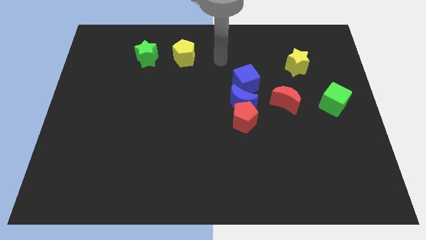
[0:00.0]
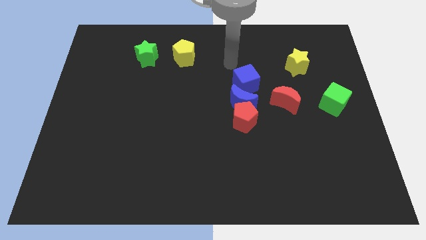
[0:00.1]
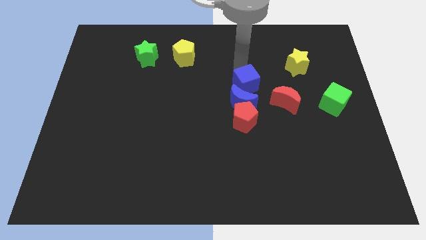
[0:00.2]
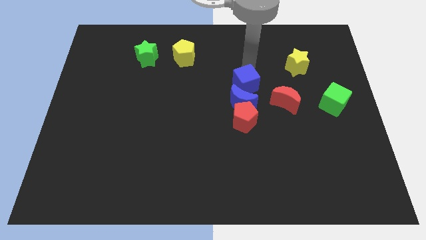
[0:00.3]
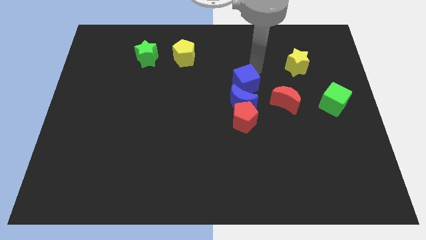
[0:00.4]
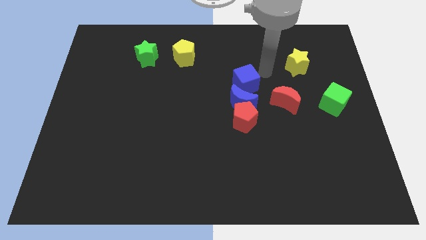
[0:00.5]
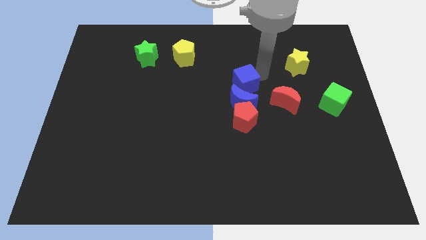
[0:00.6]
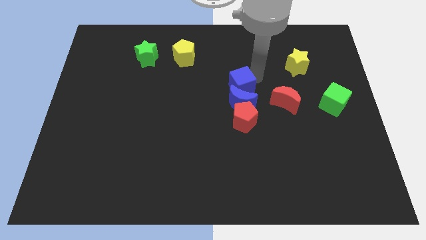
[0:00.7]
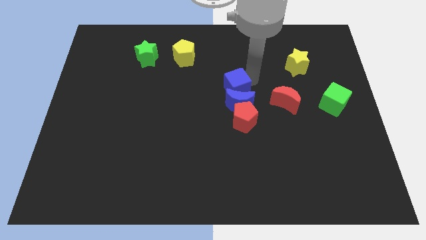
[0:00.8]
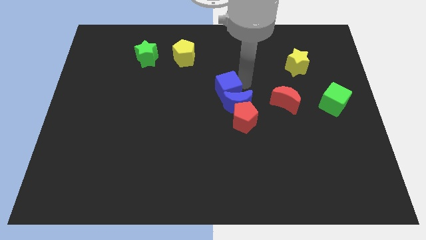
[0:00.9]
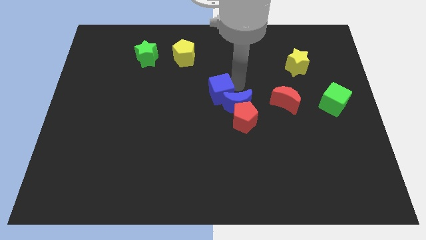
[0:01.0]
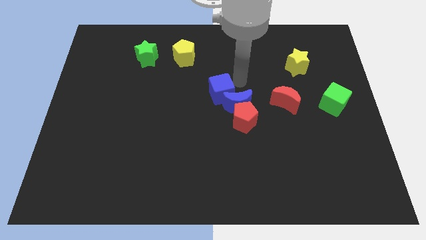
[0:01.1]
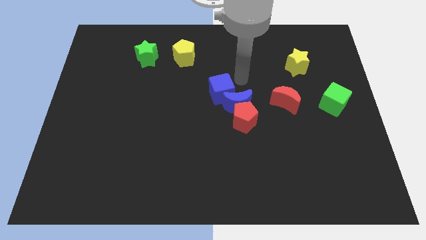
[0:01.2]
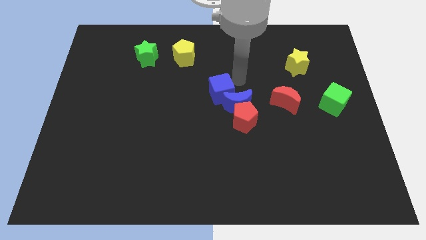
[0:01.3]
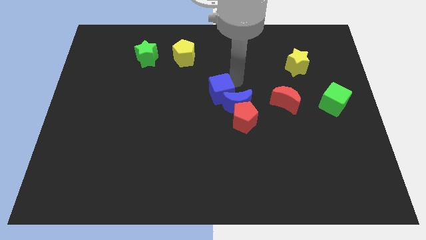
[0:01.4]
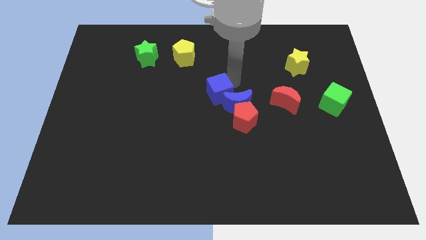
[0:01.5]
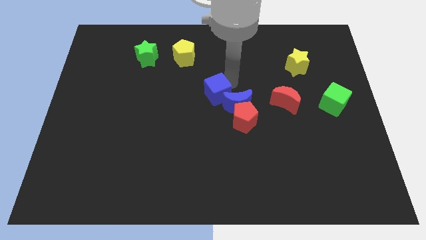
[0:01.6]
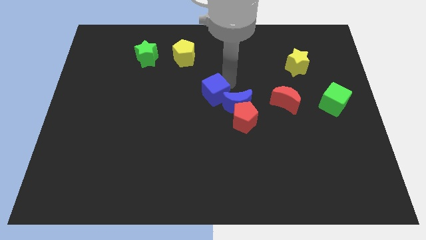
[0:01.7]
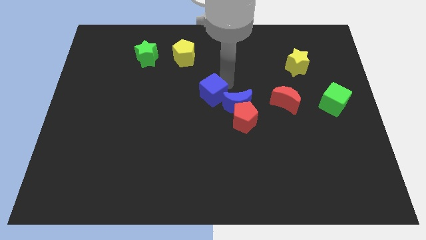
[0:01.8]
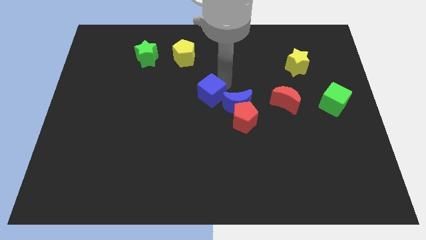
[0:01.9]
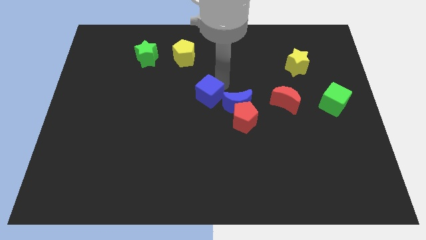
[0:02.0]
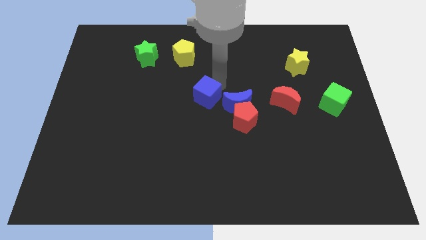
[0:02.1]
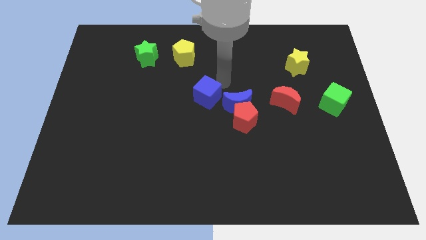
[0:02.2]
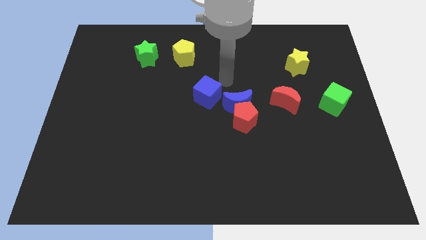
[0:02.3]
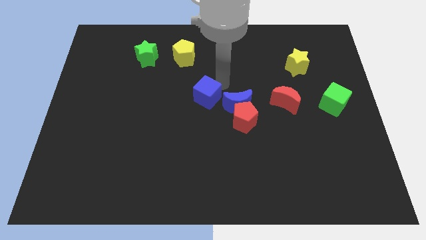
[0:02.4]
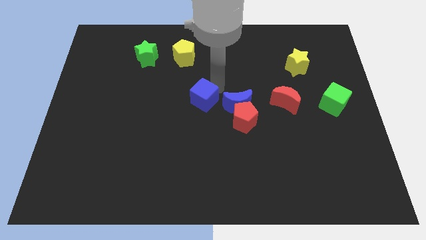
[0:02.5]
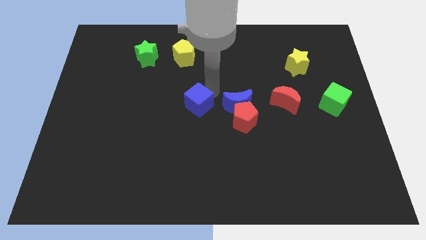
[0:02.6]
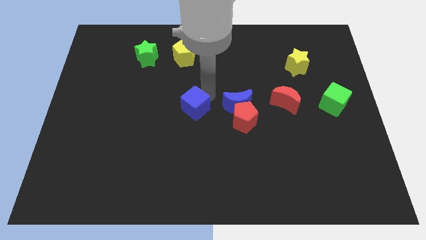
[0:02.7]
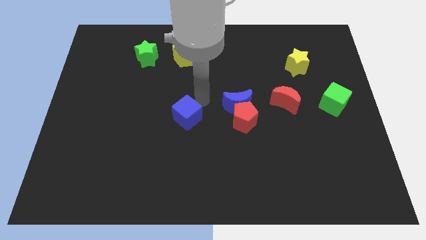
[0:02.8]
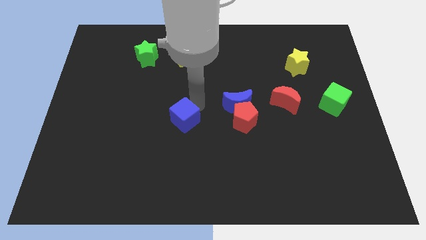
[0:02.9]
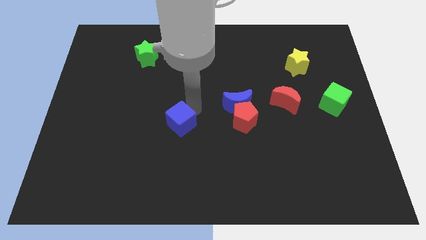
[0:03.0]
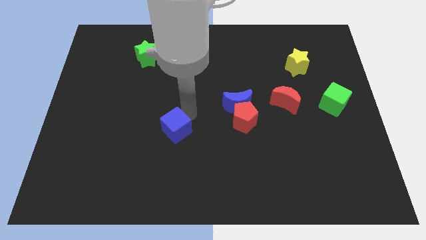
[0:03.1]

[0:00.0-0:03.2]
slide the blue cube diagonally down and to the left

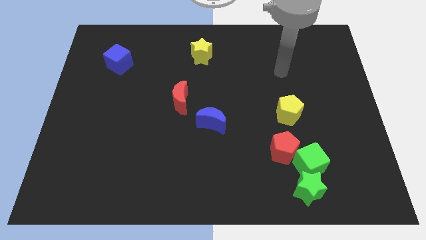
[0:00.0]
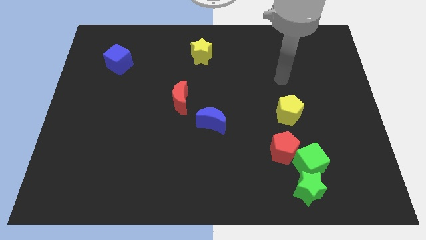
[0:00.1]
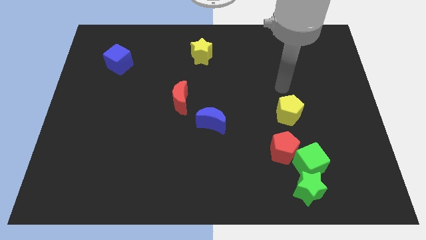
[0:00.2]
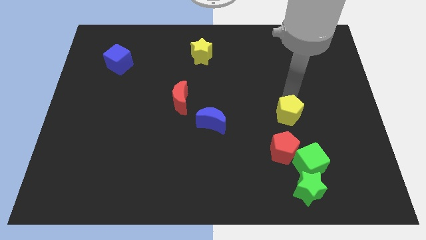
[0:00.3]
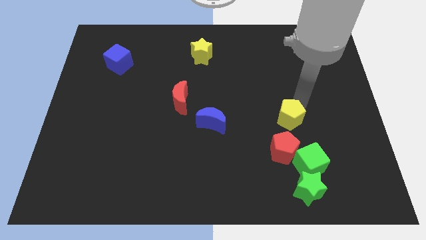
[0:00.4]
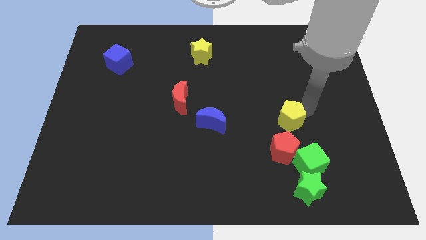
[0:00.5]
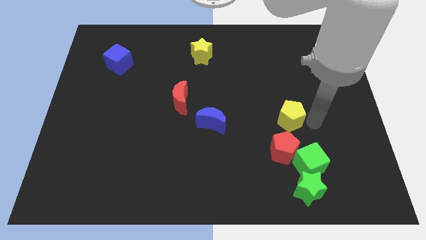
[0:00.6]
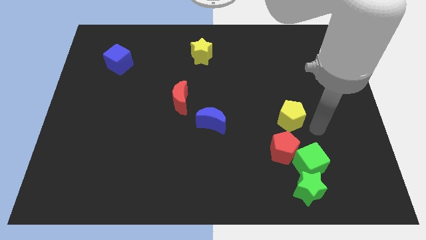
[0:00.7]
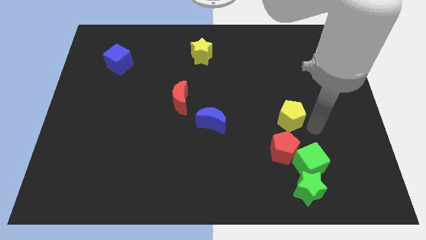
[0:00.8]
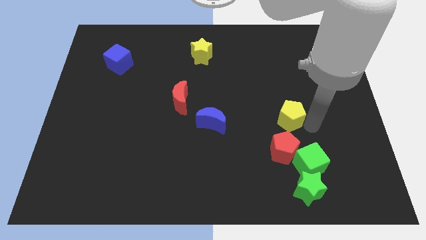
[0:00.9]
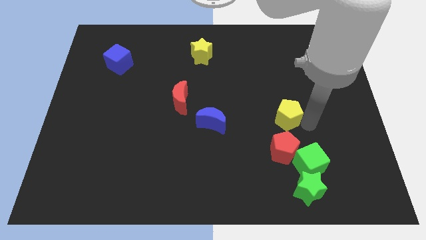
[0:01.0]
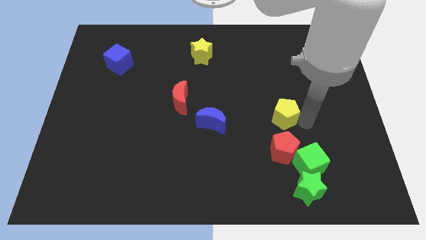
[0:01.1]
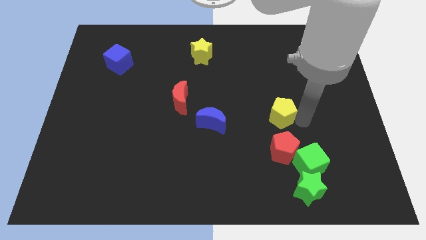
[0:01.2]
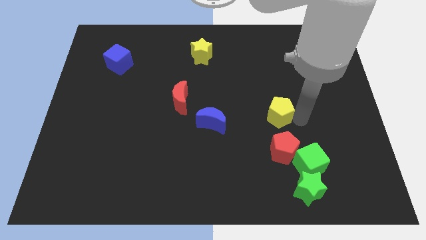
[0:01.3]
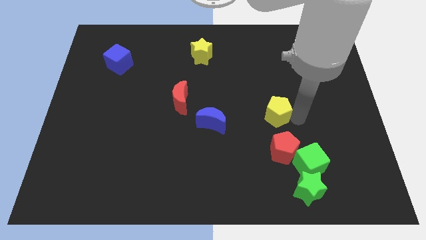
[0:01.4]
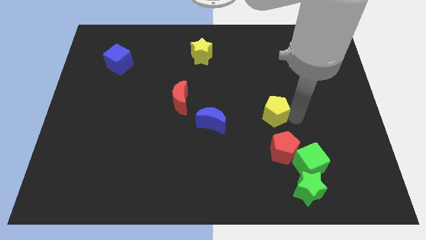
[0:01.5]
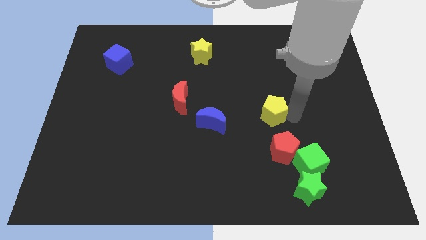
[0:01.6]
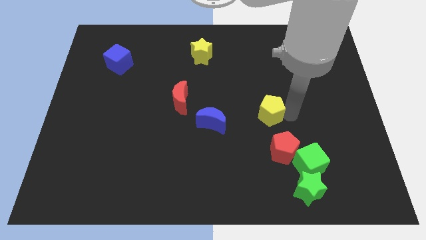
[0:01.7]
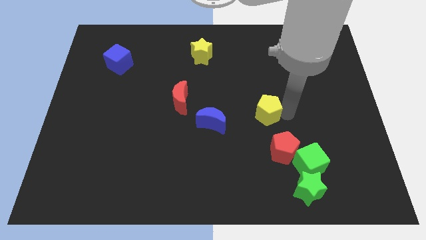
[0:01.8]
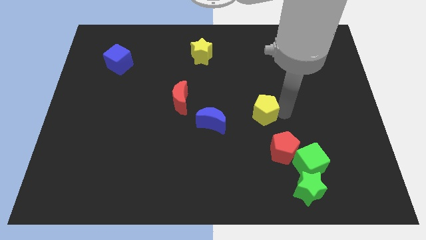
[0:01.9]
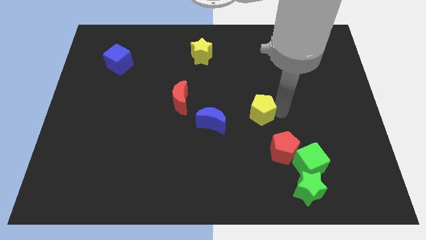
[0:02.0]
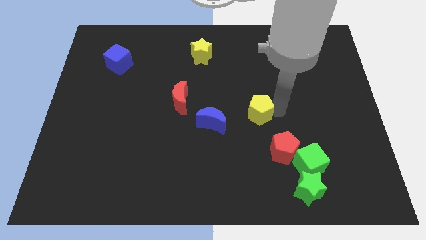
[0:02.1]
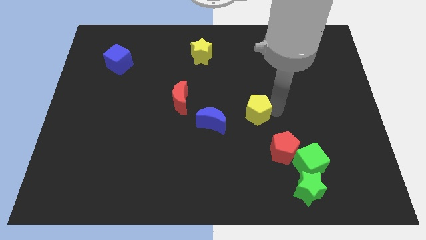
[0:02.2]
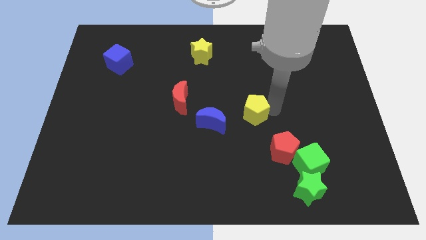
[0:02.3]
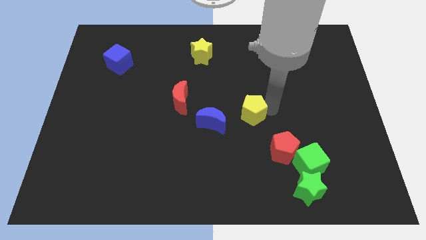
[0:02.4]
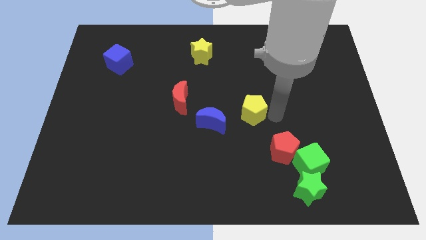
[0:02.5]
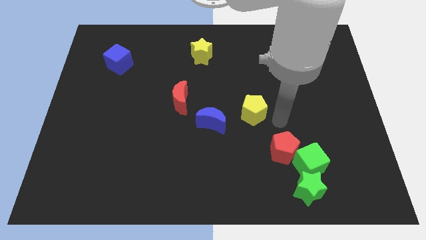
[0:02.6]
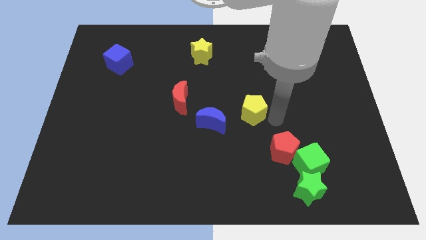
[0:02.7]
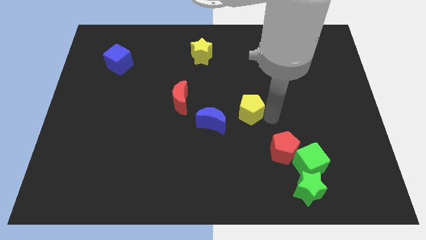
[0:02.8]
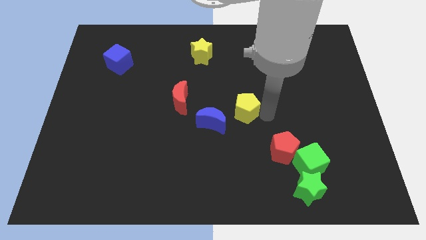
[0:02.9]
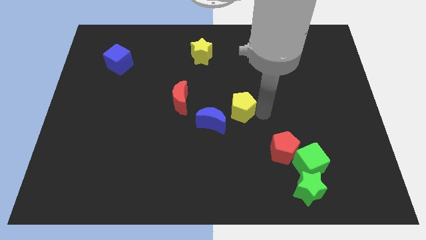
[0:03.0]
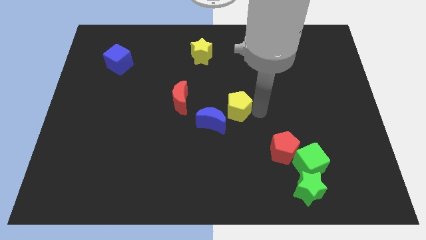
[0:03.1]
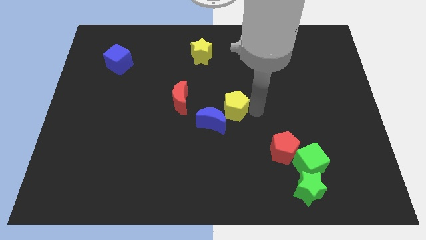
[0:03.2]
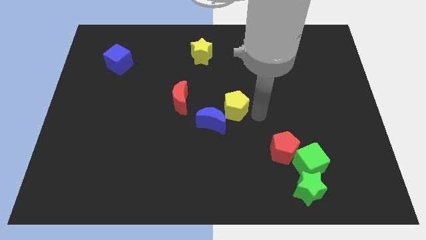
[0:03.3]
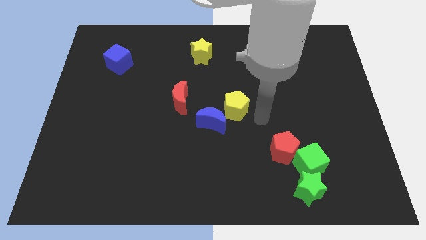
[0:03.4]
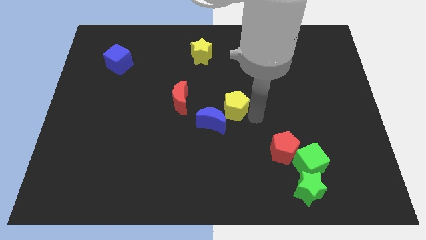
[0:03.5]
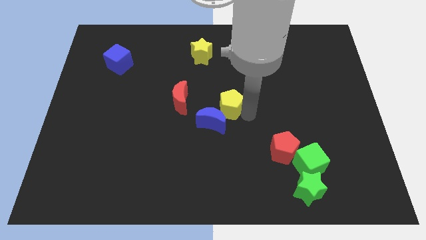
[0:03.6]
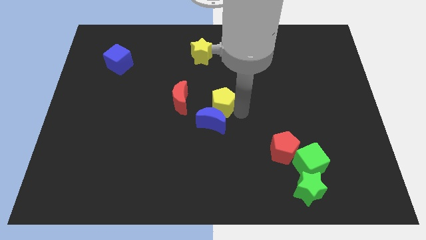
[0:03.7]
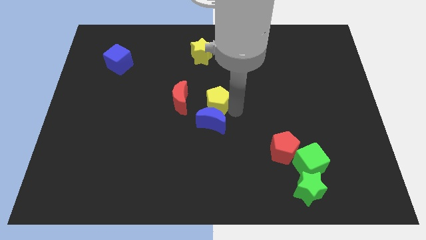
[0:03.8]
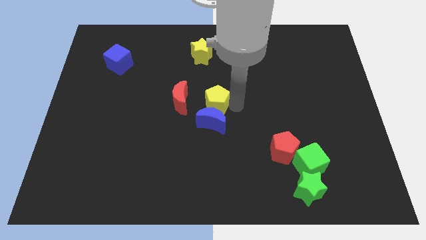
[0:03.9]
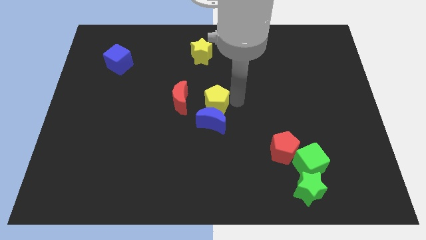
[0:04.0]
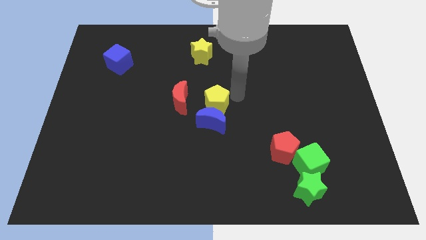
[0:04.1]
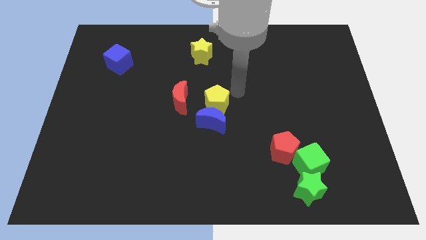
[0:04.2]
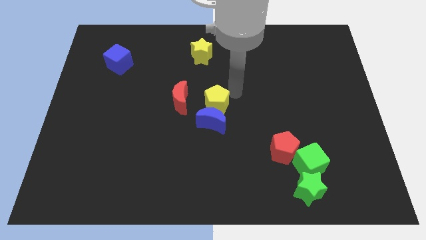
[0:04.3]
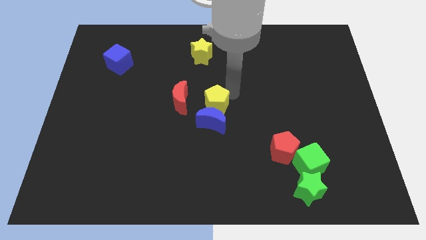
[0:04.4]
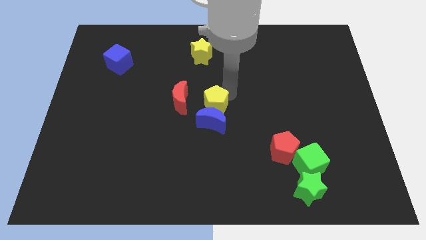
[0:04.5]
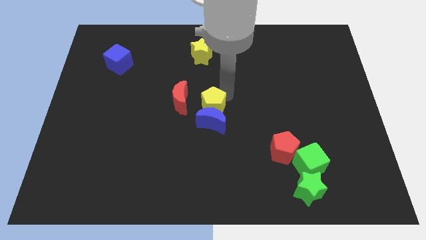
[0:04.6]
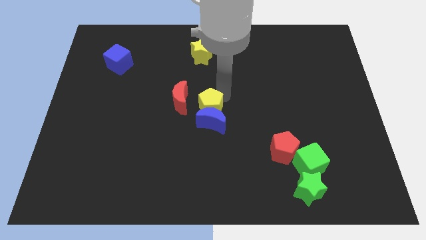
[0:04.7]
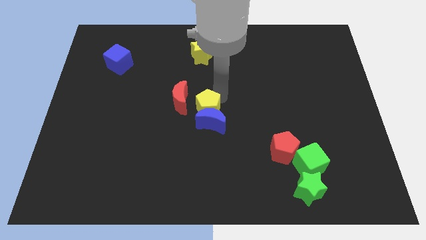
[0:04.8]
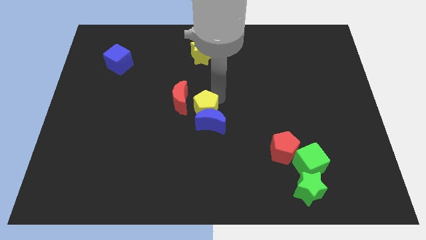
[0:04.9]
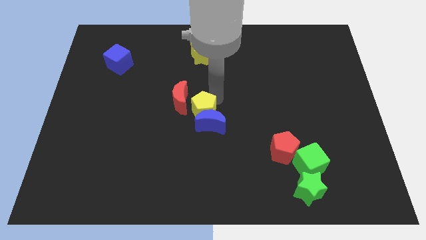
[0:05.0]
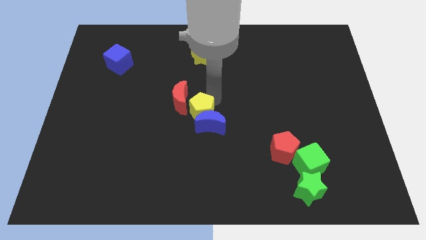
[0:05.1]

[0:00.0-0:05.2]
slide the yellow pentagon left
